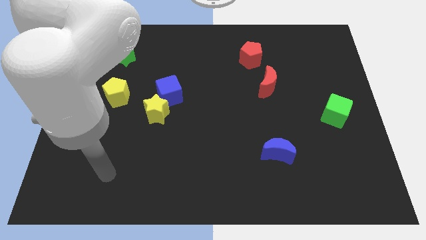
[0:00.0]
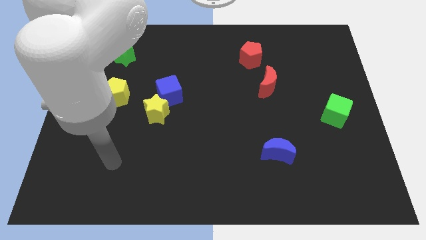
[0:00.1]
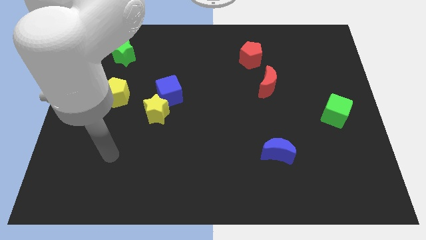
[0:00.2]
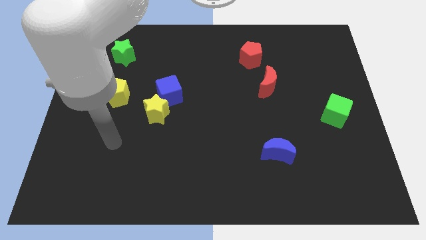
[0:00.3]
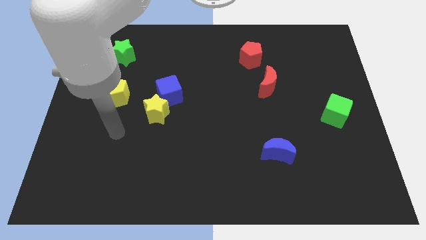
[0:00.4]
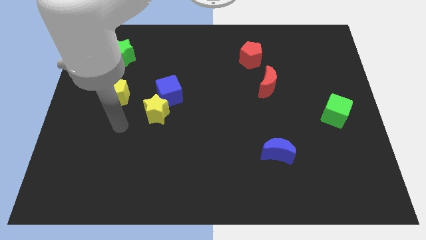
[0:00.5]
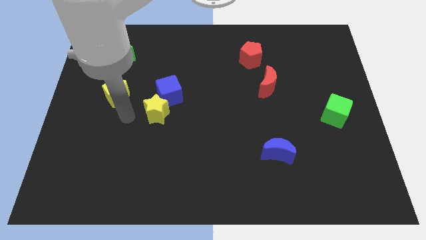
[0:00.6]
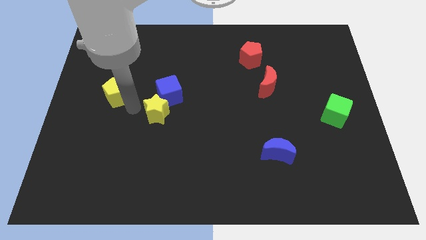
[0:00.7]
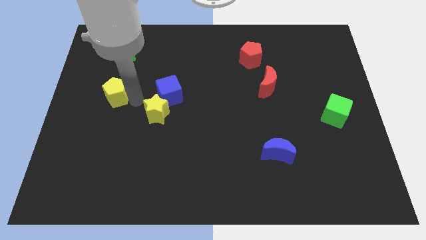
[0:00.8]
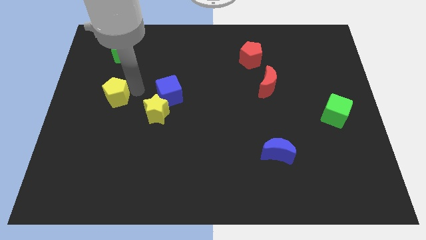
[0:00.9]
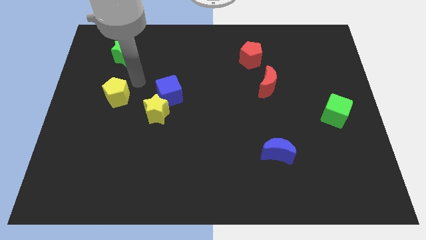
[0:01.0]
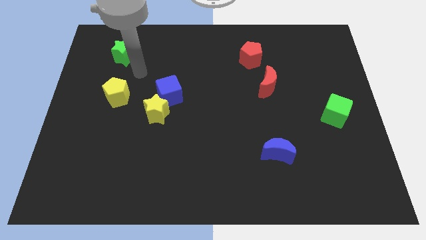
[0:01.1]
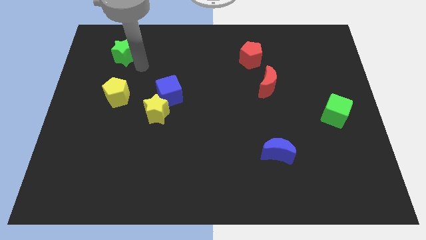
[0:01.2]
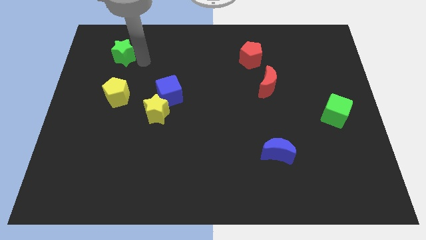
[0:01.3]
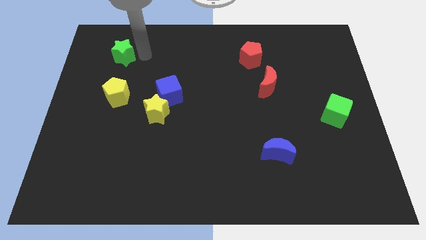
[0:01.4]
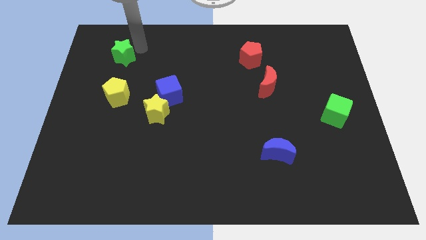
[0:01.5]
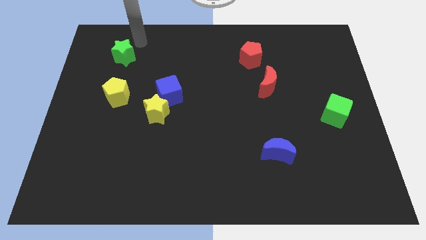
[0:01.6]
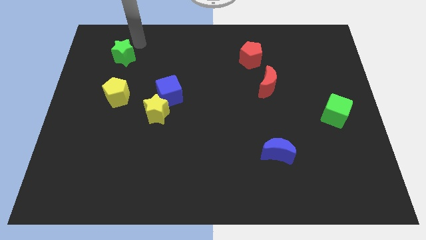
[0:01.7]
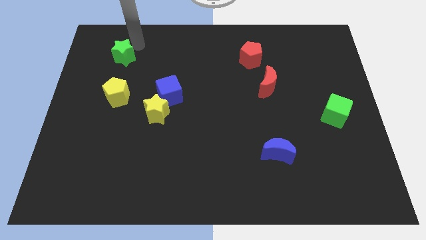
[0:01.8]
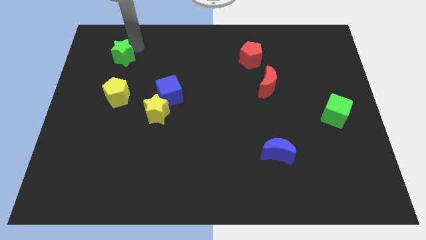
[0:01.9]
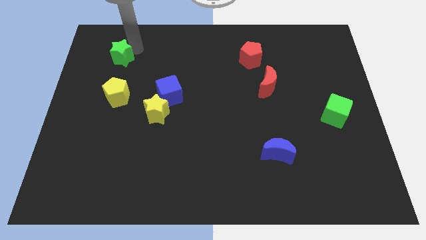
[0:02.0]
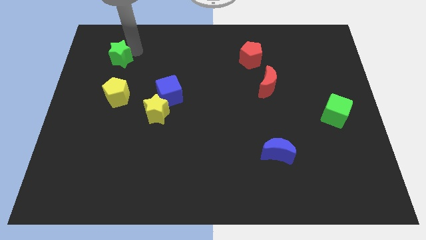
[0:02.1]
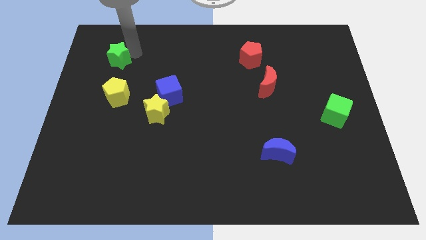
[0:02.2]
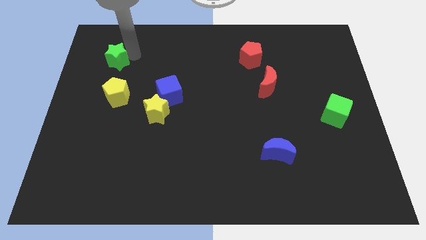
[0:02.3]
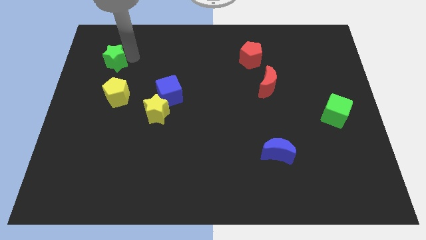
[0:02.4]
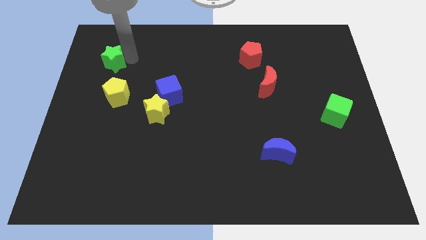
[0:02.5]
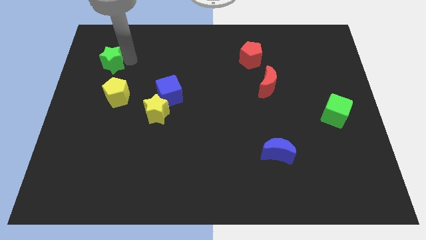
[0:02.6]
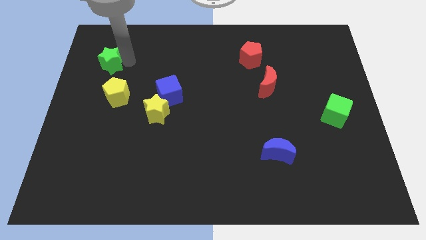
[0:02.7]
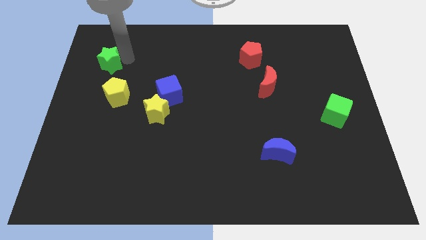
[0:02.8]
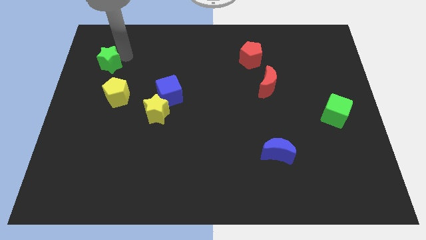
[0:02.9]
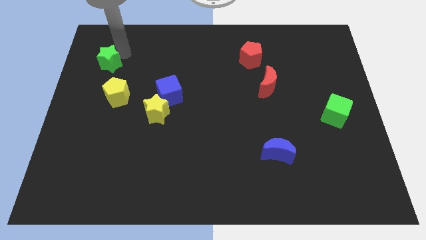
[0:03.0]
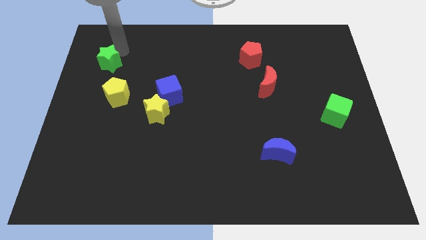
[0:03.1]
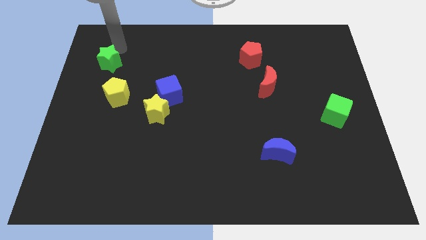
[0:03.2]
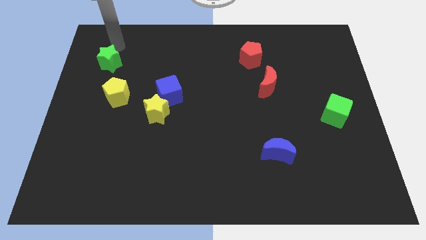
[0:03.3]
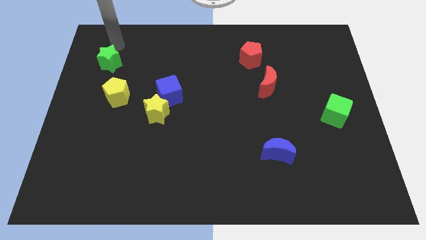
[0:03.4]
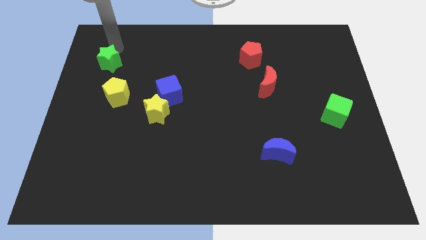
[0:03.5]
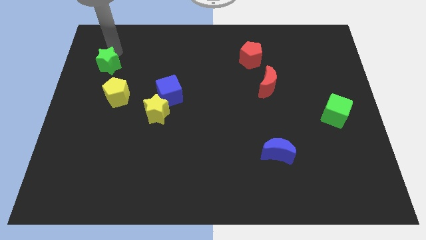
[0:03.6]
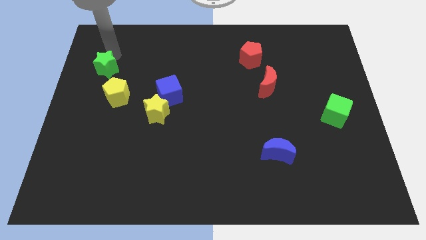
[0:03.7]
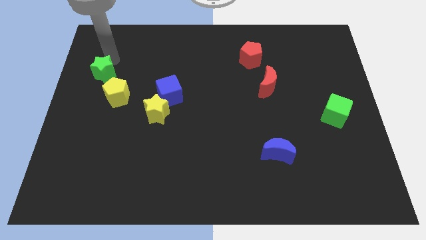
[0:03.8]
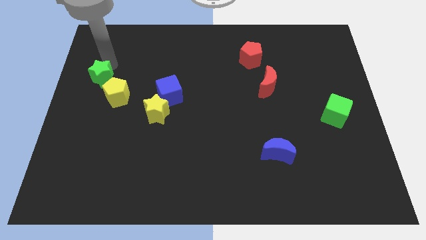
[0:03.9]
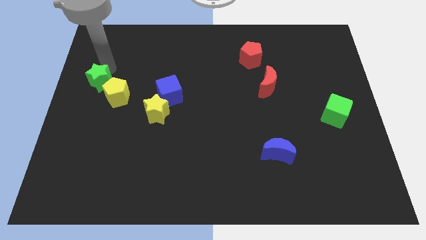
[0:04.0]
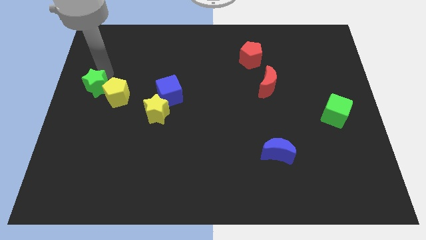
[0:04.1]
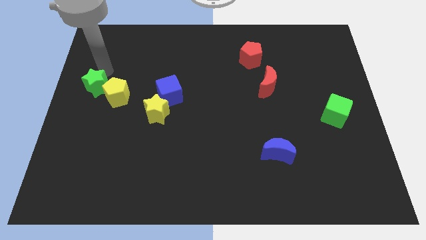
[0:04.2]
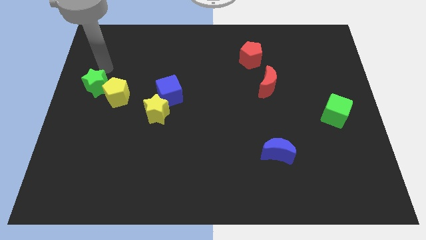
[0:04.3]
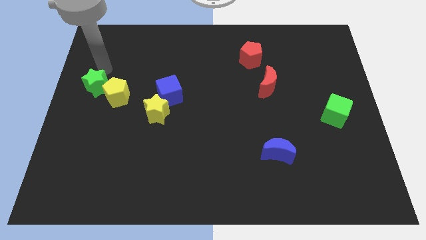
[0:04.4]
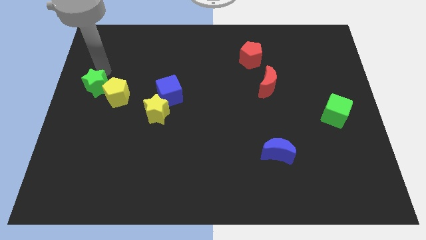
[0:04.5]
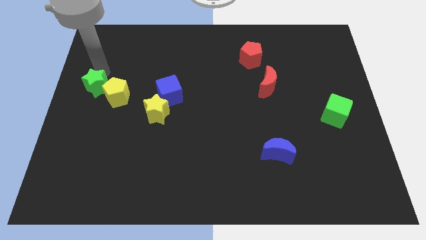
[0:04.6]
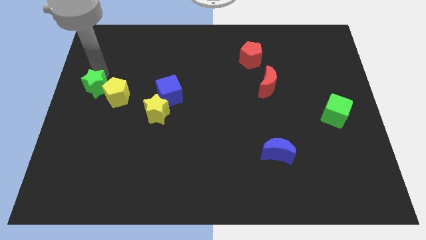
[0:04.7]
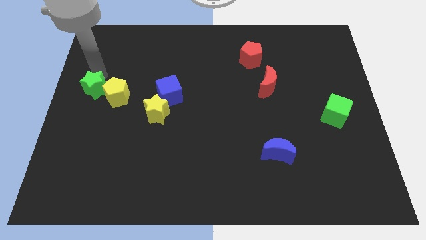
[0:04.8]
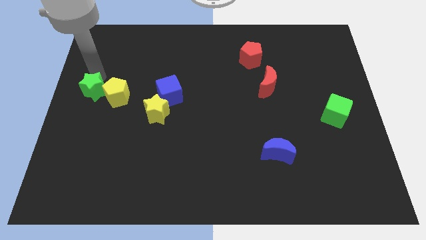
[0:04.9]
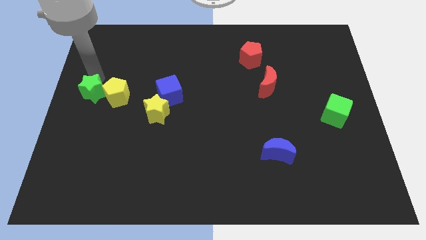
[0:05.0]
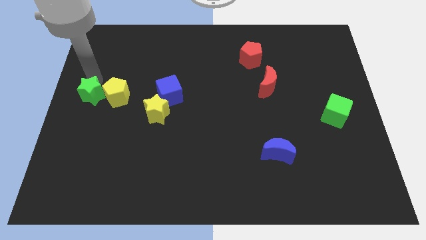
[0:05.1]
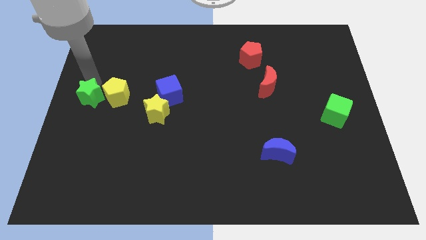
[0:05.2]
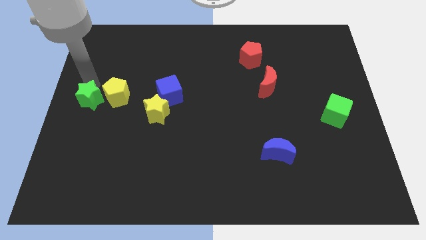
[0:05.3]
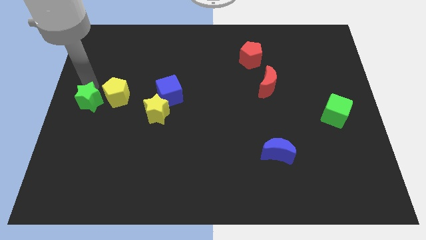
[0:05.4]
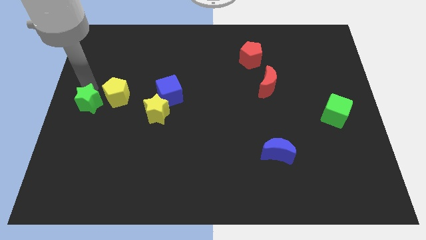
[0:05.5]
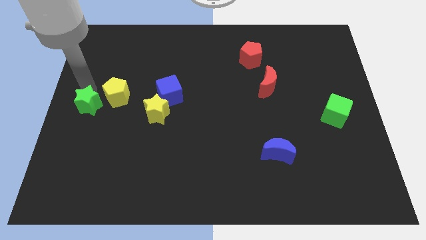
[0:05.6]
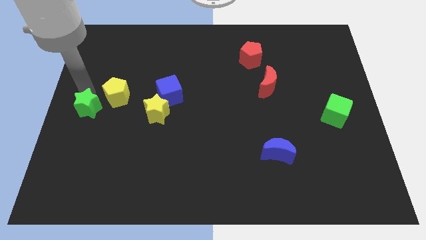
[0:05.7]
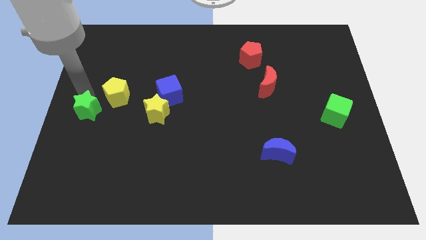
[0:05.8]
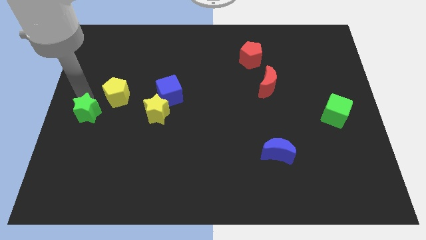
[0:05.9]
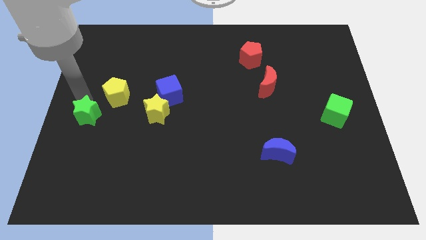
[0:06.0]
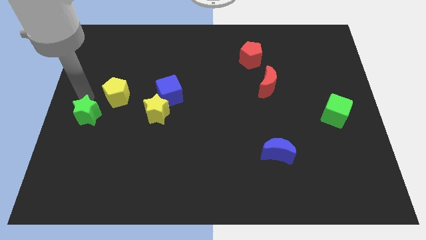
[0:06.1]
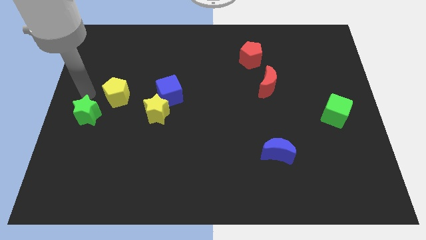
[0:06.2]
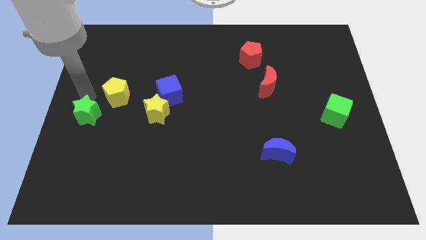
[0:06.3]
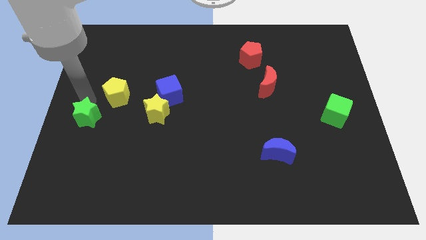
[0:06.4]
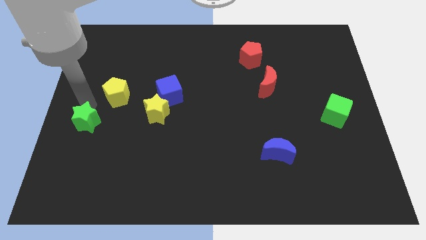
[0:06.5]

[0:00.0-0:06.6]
push the green star downwards

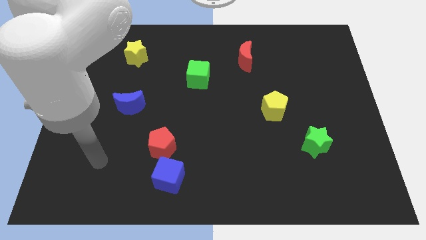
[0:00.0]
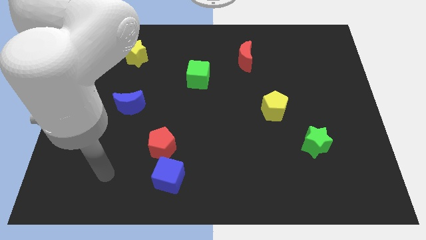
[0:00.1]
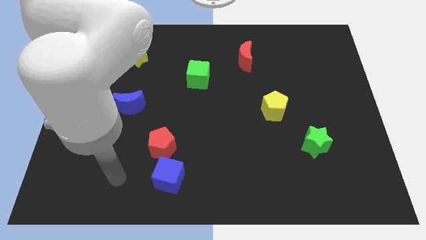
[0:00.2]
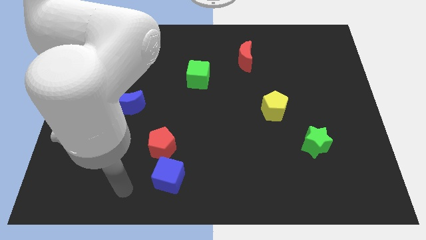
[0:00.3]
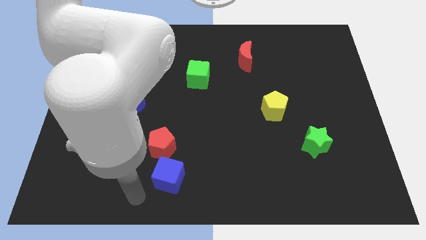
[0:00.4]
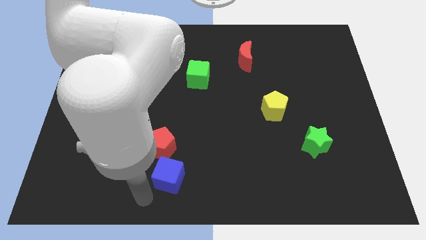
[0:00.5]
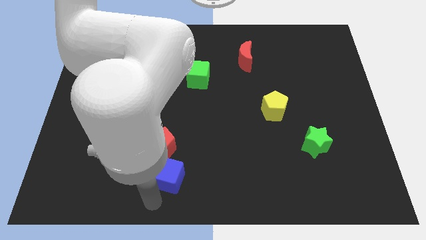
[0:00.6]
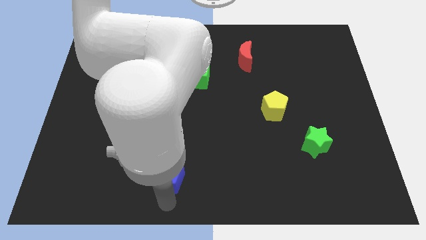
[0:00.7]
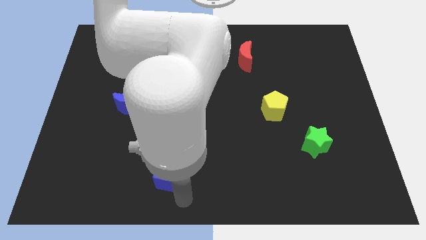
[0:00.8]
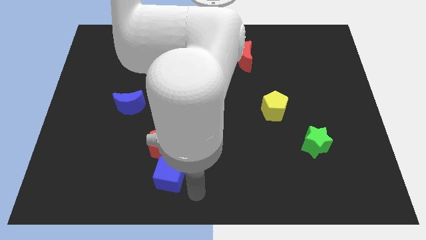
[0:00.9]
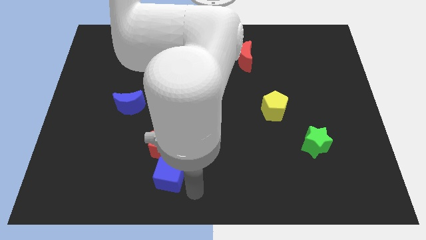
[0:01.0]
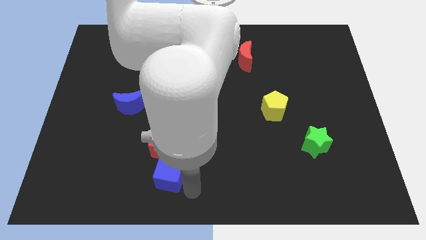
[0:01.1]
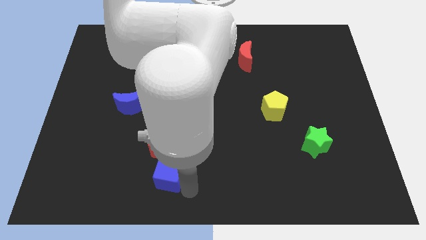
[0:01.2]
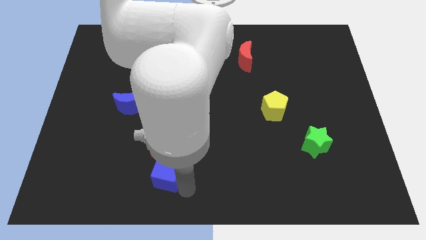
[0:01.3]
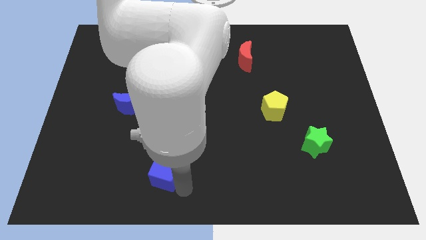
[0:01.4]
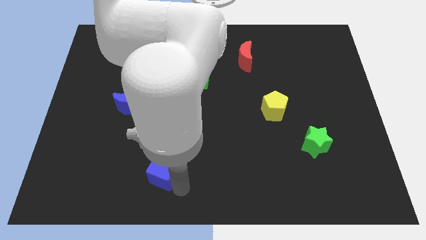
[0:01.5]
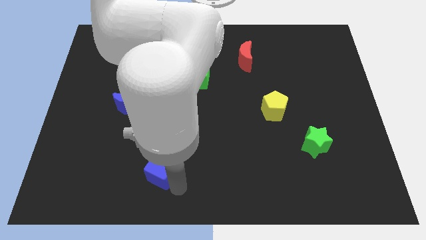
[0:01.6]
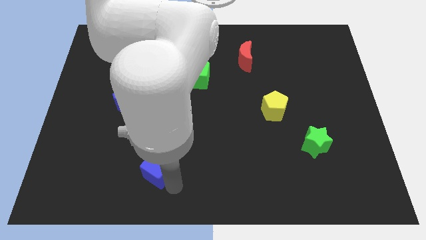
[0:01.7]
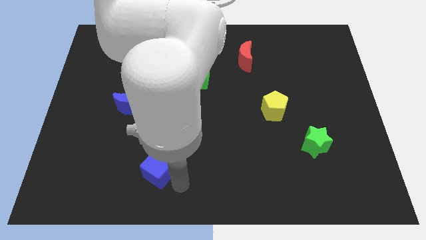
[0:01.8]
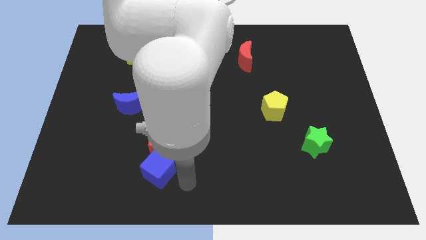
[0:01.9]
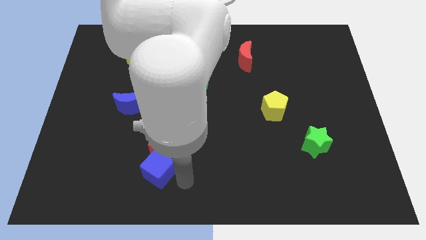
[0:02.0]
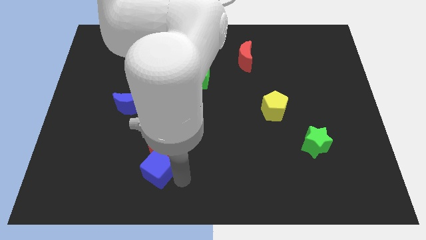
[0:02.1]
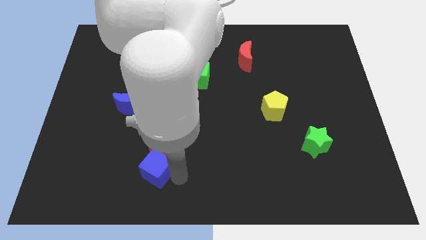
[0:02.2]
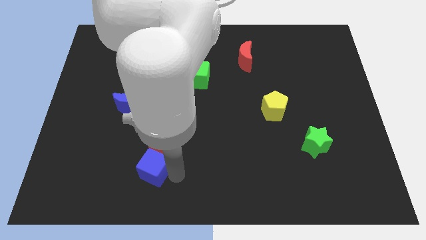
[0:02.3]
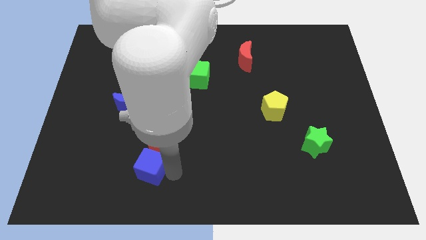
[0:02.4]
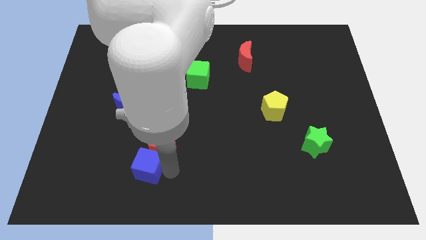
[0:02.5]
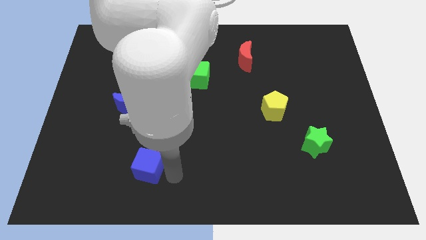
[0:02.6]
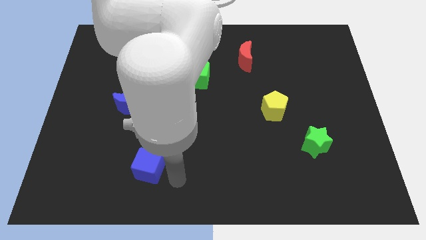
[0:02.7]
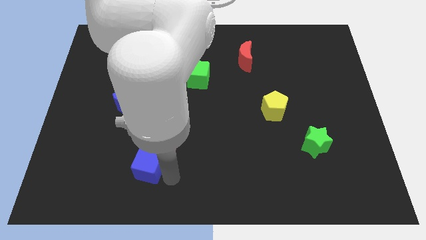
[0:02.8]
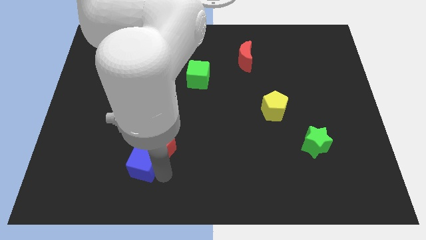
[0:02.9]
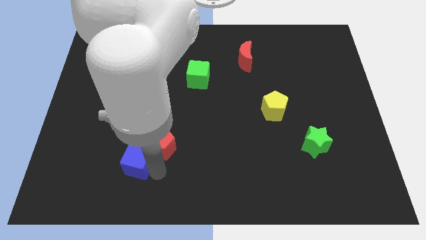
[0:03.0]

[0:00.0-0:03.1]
slide the blue cube diagonally up and left slightly
